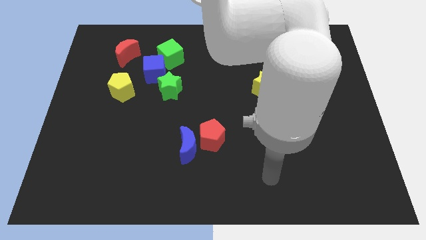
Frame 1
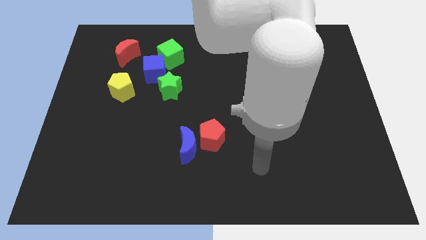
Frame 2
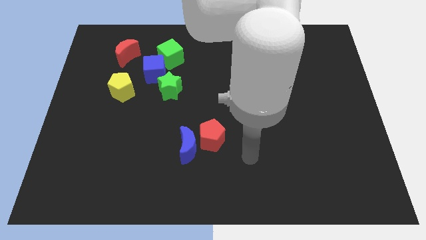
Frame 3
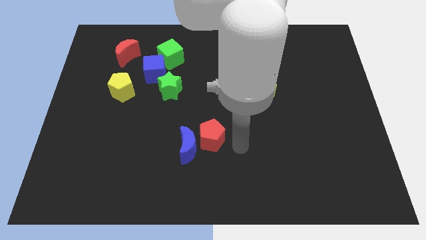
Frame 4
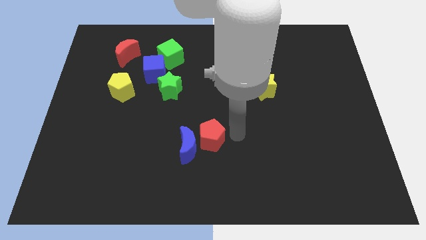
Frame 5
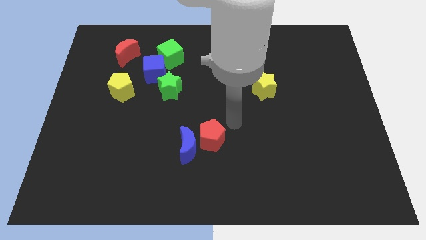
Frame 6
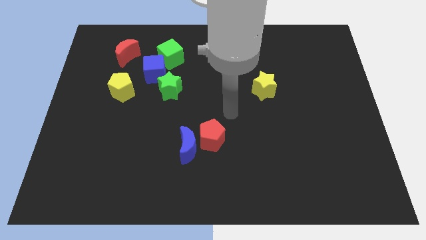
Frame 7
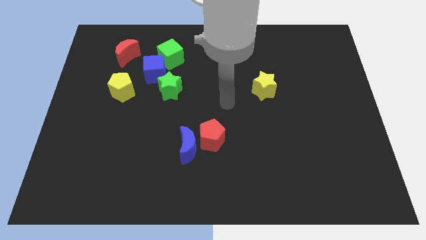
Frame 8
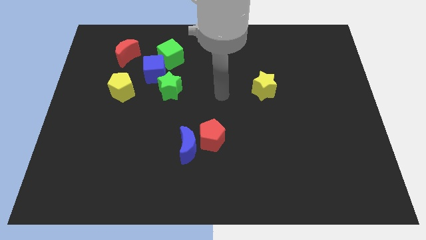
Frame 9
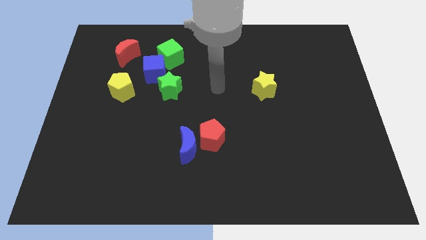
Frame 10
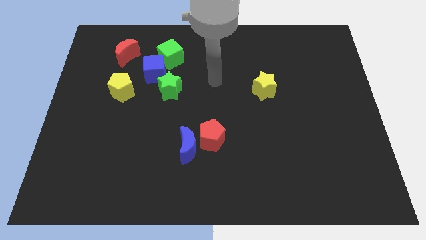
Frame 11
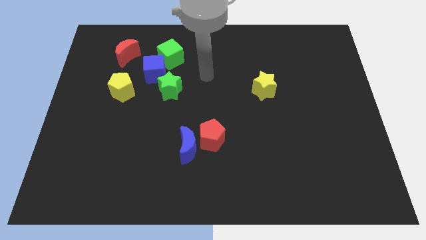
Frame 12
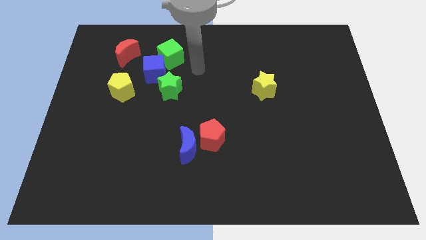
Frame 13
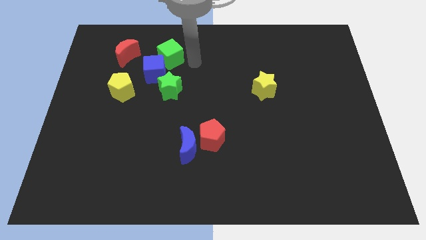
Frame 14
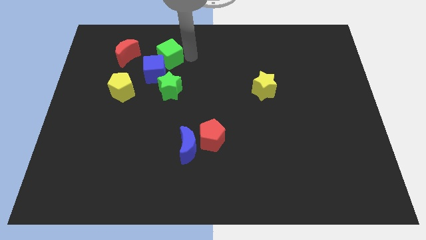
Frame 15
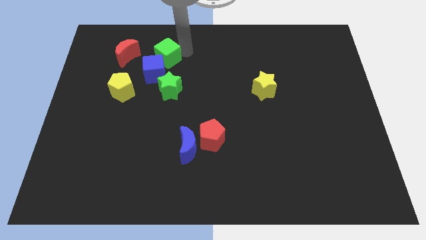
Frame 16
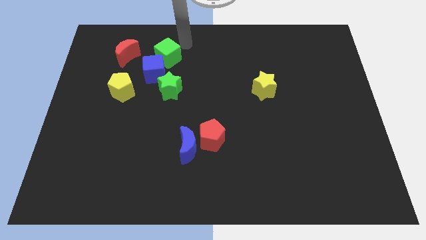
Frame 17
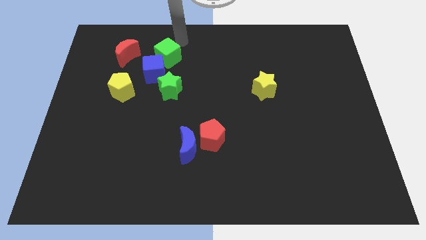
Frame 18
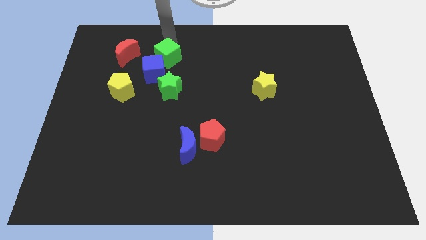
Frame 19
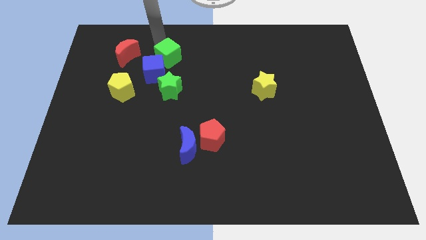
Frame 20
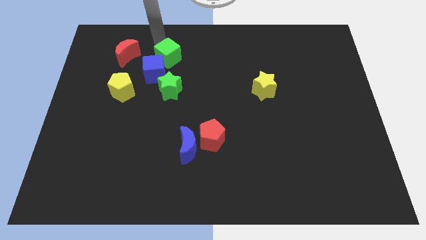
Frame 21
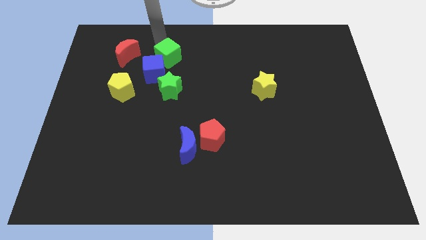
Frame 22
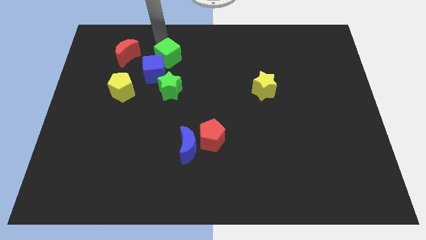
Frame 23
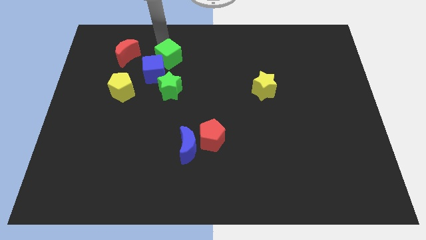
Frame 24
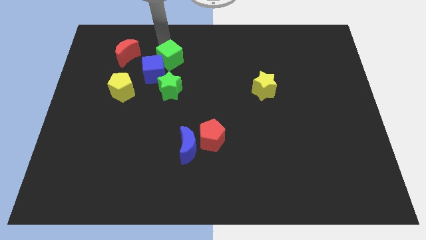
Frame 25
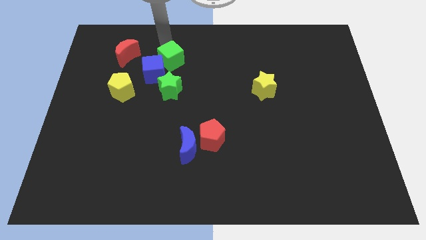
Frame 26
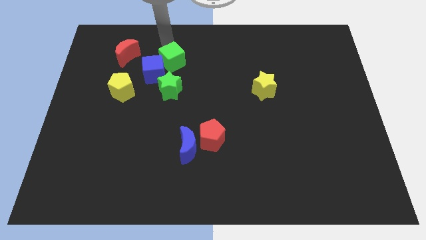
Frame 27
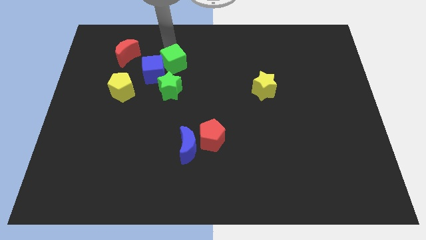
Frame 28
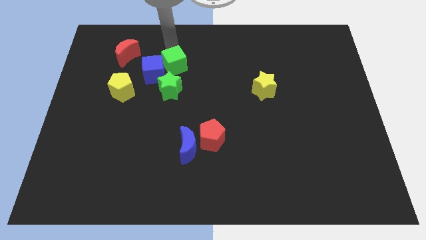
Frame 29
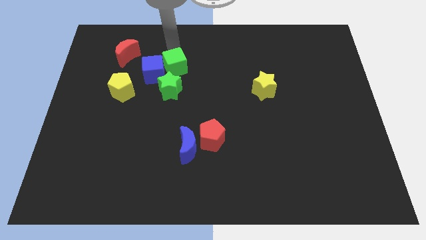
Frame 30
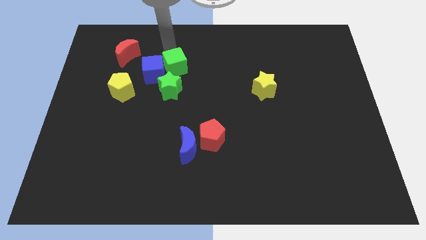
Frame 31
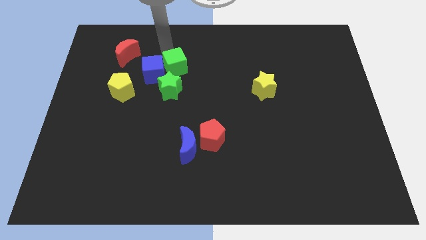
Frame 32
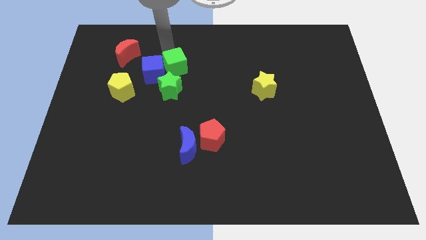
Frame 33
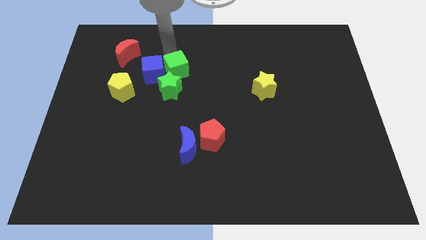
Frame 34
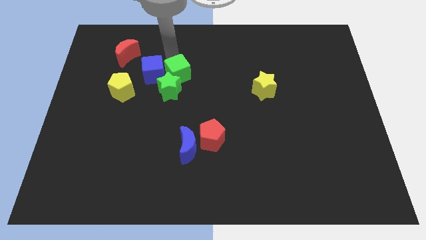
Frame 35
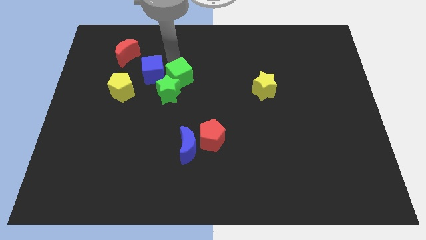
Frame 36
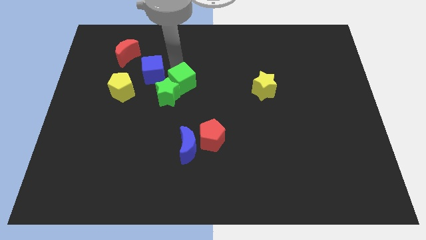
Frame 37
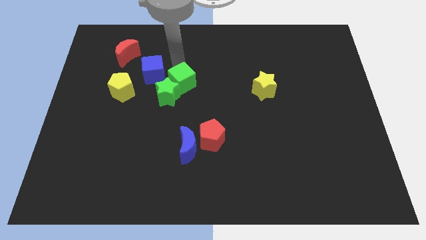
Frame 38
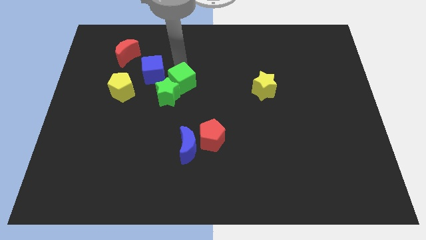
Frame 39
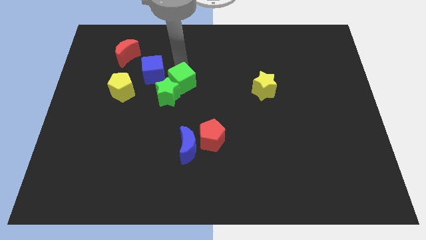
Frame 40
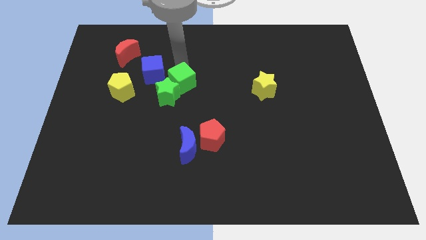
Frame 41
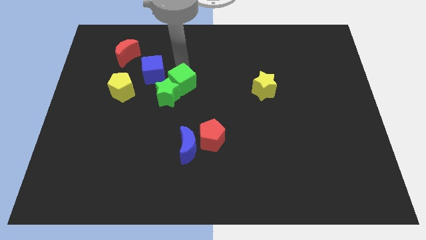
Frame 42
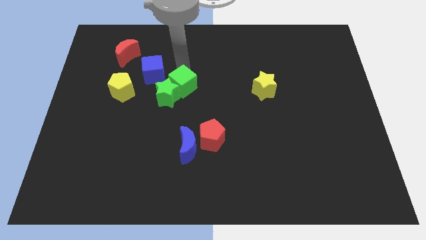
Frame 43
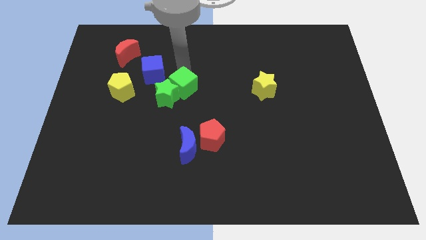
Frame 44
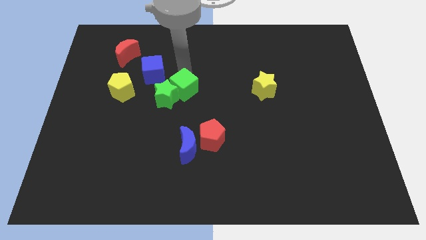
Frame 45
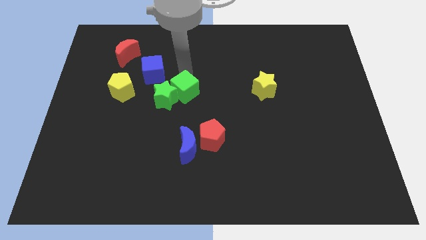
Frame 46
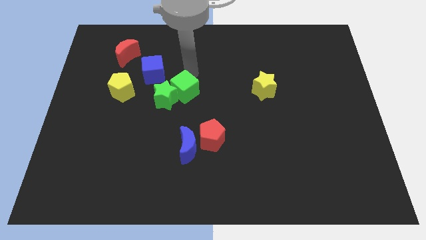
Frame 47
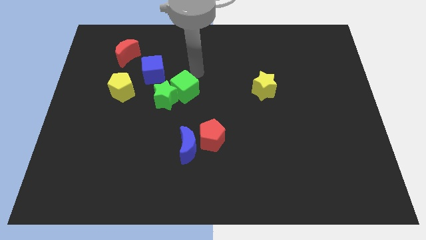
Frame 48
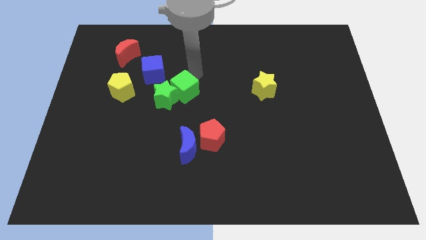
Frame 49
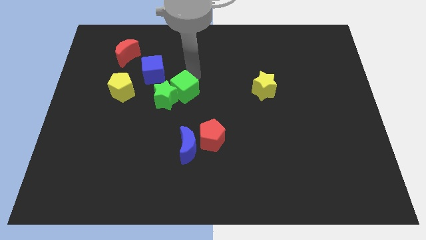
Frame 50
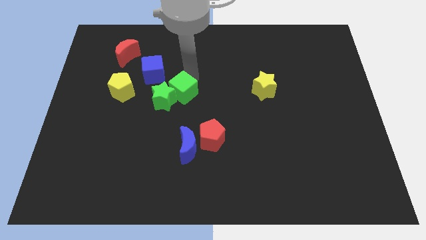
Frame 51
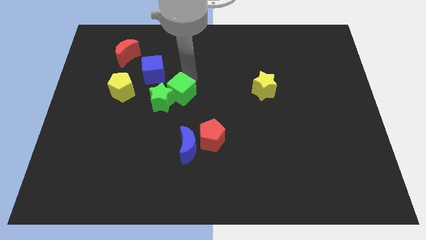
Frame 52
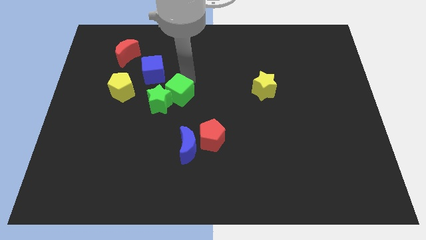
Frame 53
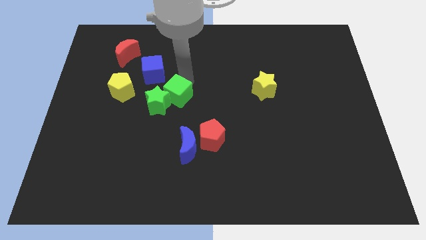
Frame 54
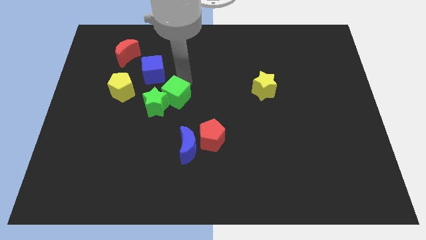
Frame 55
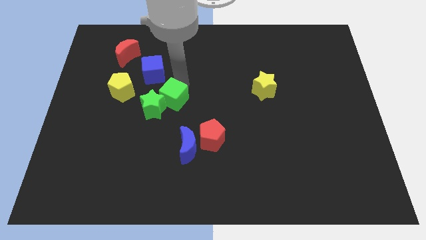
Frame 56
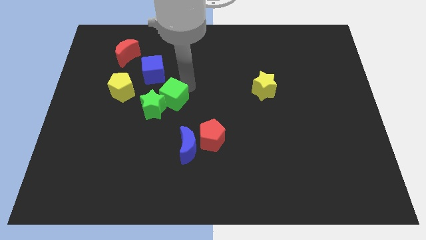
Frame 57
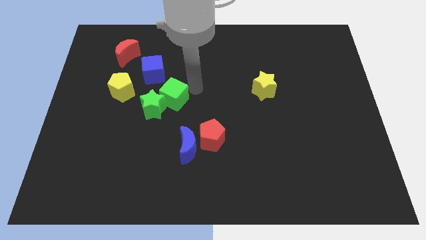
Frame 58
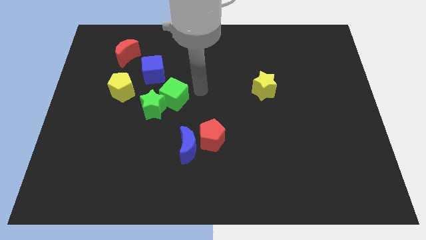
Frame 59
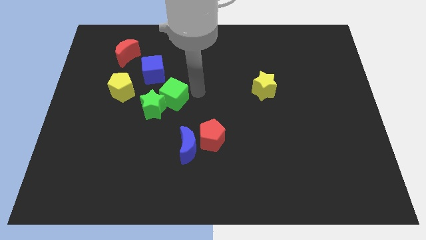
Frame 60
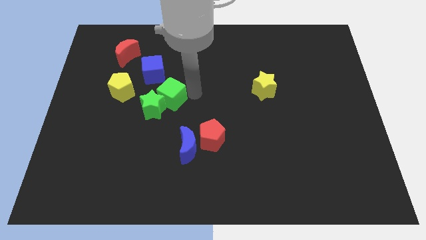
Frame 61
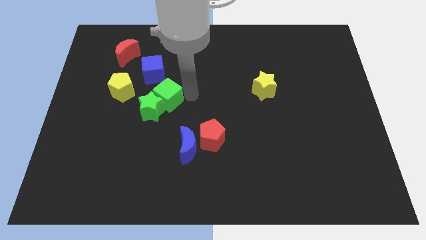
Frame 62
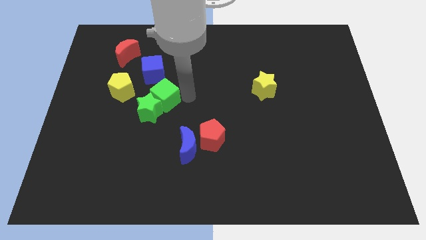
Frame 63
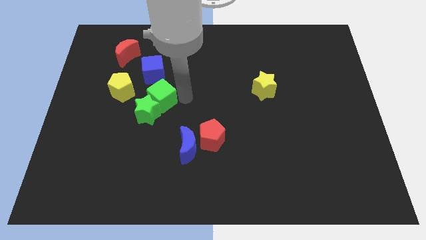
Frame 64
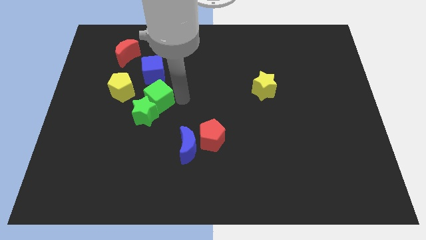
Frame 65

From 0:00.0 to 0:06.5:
put the green cube to the bottom right of the yellow pentagon
